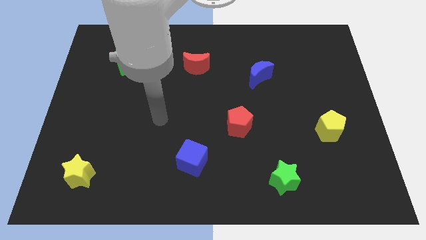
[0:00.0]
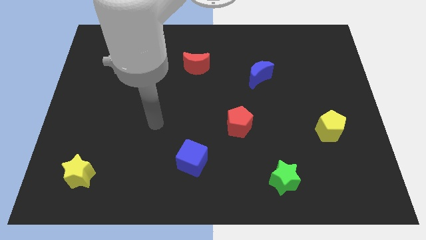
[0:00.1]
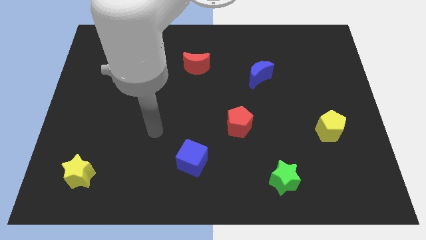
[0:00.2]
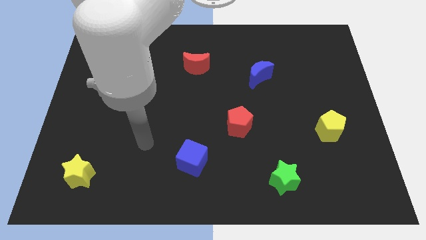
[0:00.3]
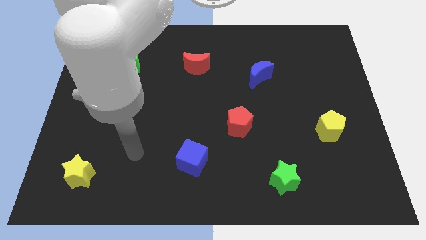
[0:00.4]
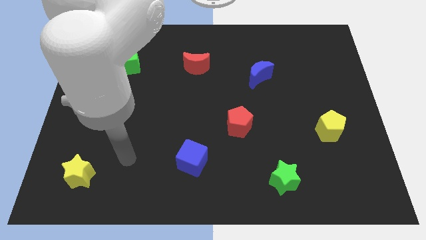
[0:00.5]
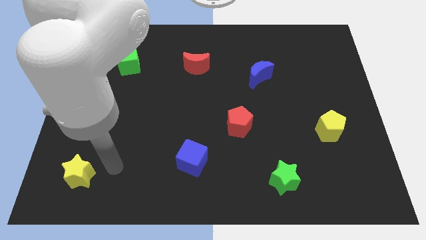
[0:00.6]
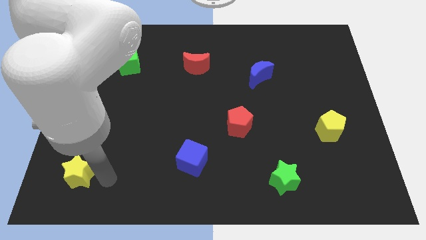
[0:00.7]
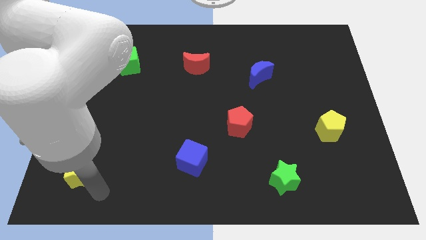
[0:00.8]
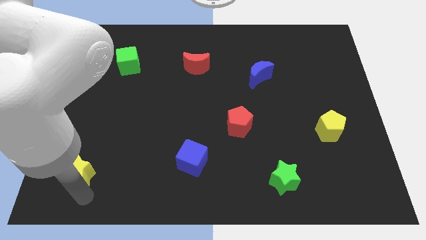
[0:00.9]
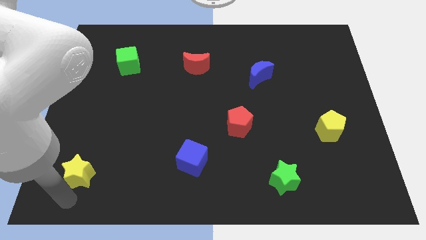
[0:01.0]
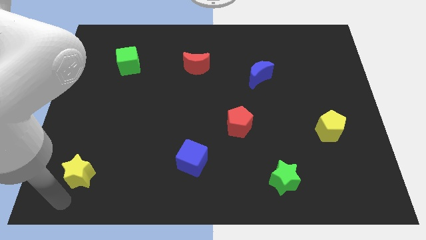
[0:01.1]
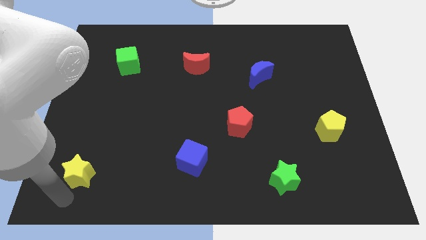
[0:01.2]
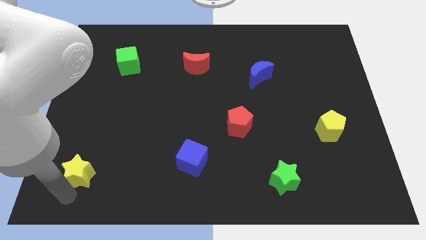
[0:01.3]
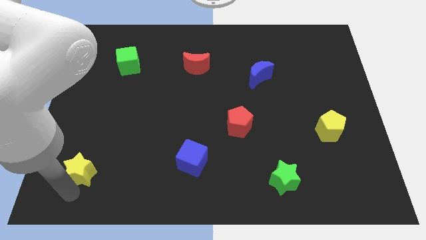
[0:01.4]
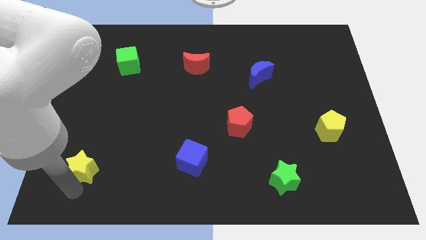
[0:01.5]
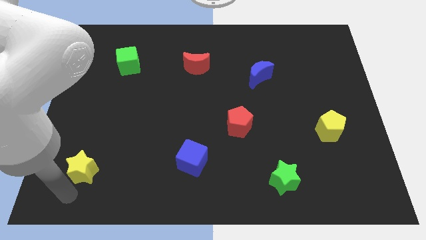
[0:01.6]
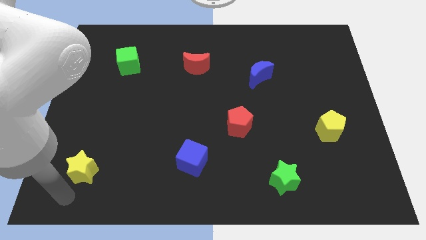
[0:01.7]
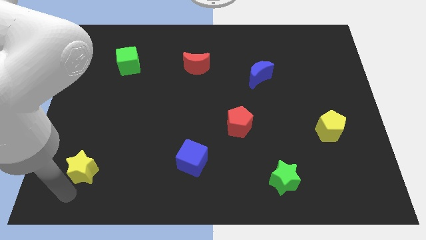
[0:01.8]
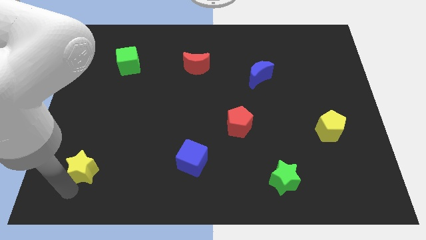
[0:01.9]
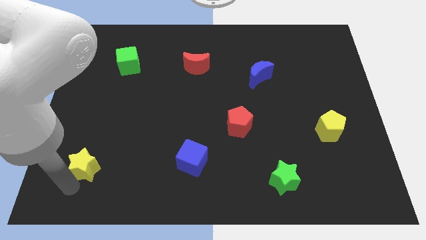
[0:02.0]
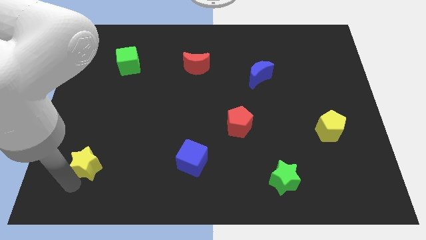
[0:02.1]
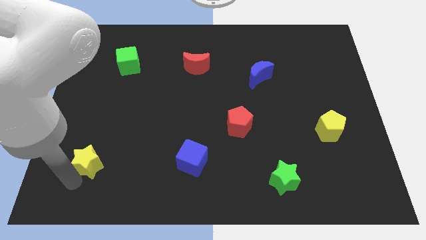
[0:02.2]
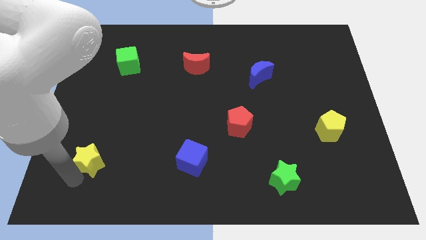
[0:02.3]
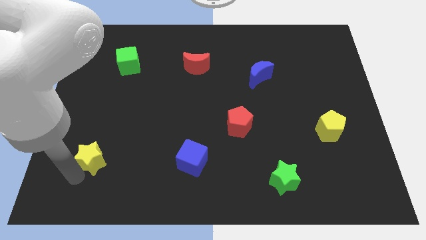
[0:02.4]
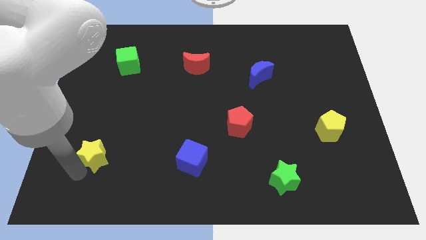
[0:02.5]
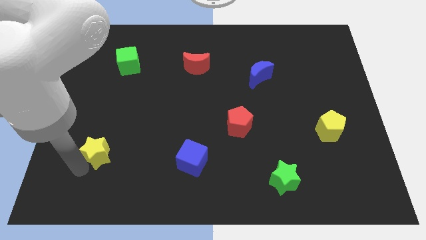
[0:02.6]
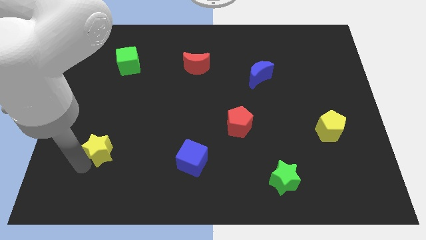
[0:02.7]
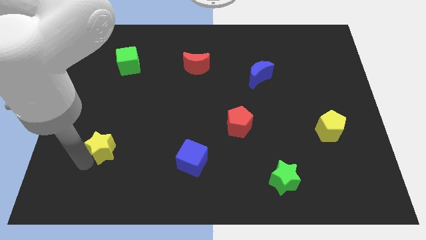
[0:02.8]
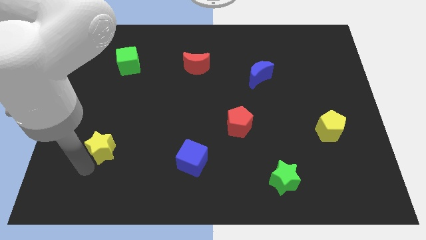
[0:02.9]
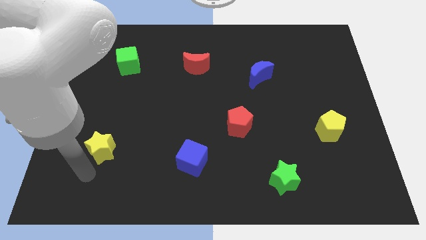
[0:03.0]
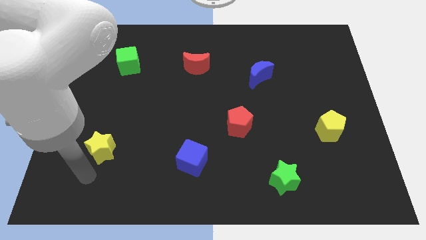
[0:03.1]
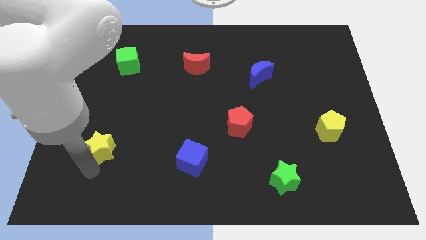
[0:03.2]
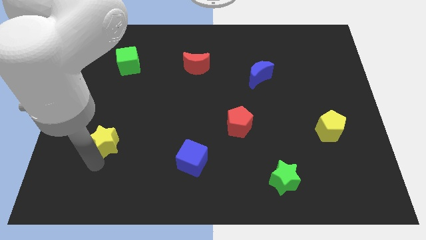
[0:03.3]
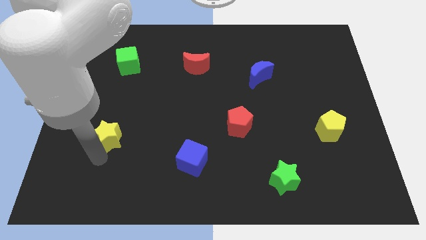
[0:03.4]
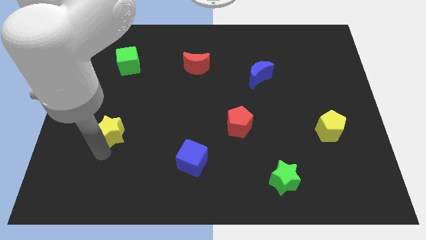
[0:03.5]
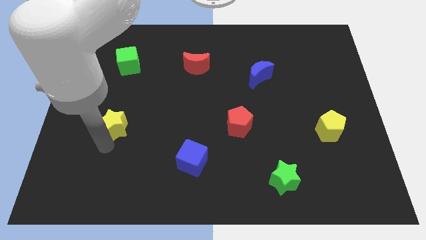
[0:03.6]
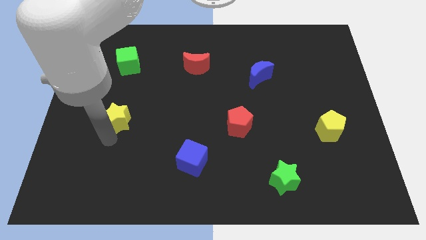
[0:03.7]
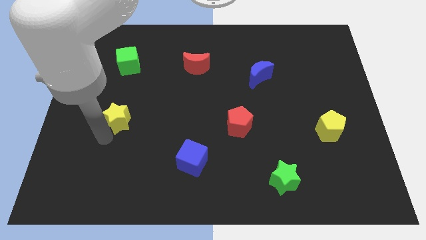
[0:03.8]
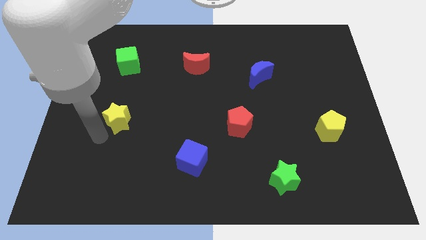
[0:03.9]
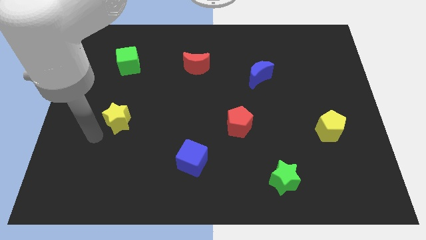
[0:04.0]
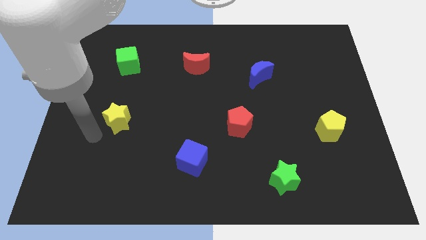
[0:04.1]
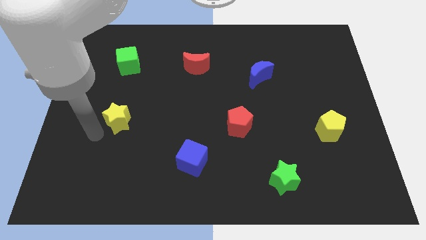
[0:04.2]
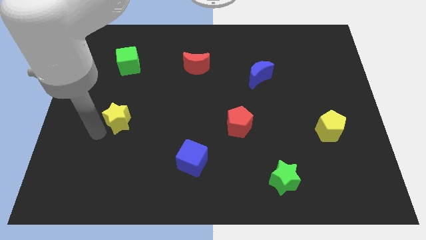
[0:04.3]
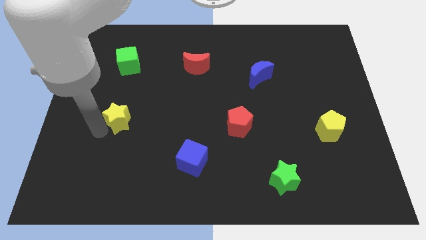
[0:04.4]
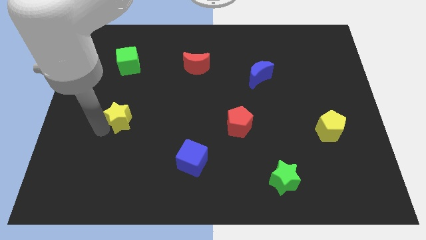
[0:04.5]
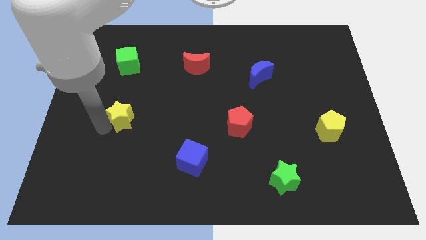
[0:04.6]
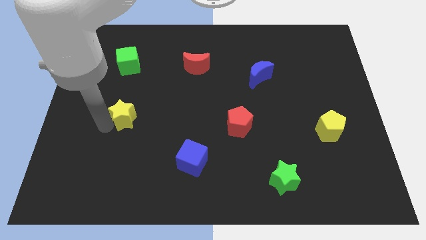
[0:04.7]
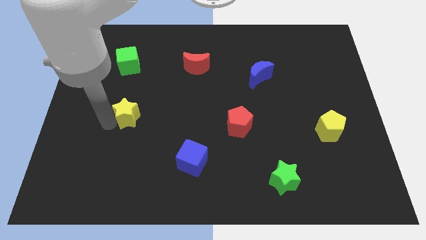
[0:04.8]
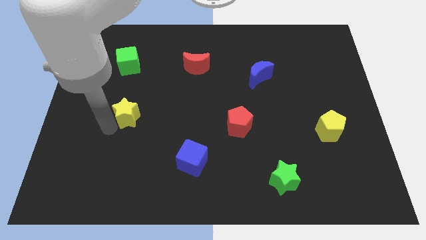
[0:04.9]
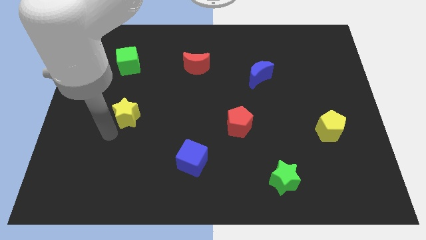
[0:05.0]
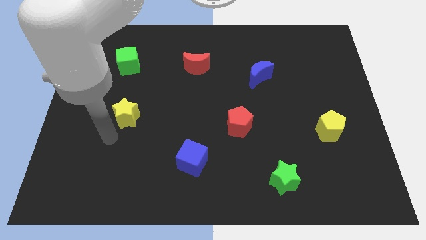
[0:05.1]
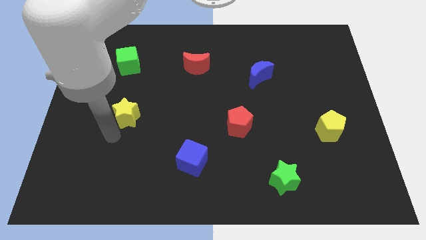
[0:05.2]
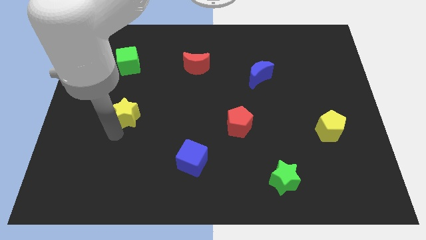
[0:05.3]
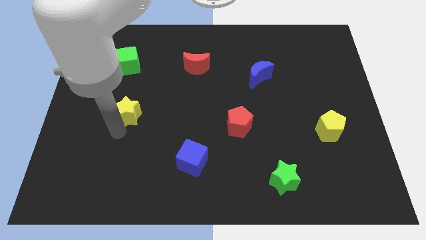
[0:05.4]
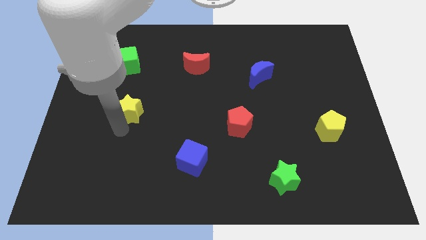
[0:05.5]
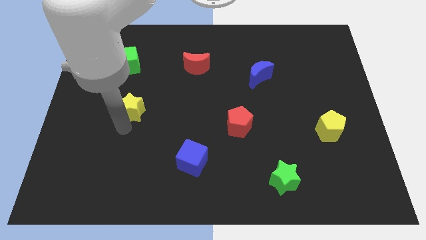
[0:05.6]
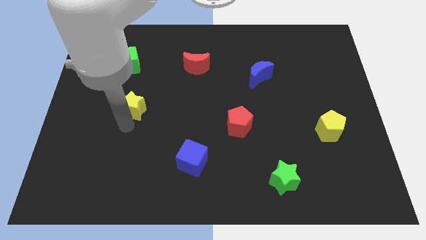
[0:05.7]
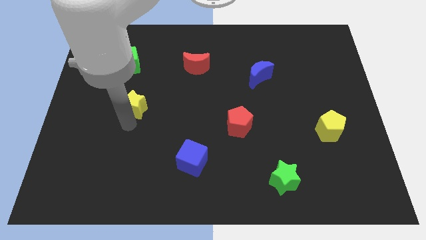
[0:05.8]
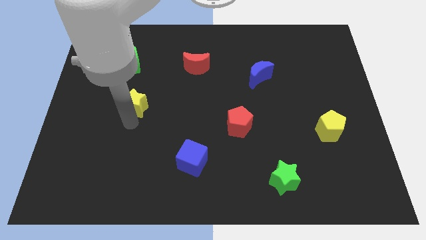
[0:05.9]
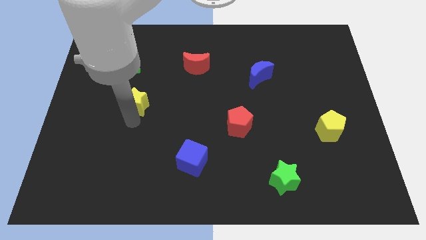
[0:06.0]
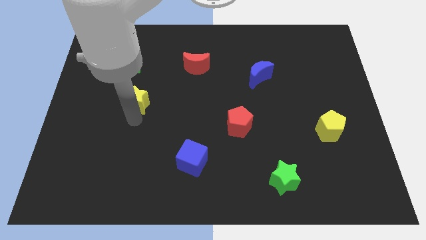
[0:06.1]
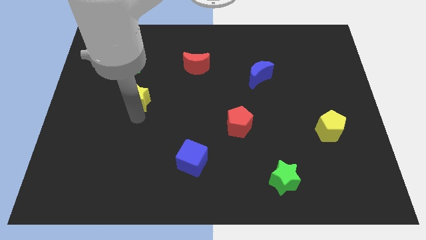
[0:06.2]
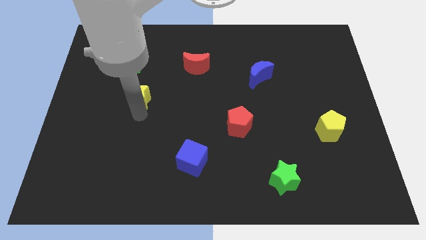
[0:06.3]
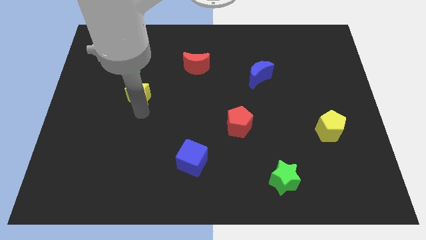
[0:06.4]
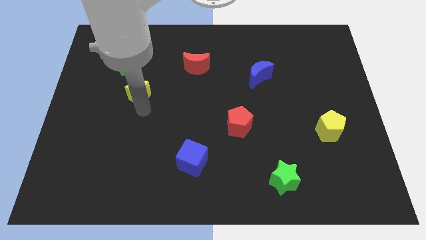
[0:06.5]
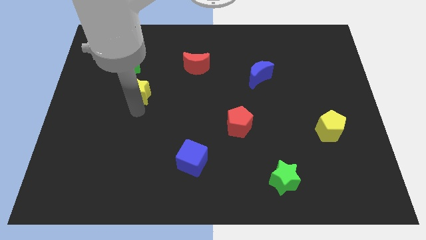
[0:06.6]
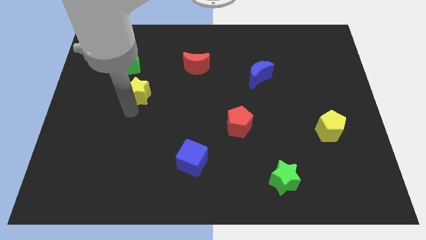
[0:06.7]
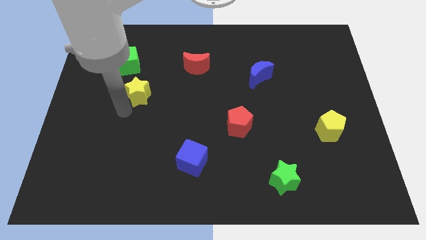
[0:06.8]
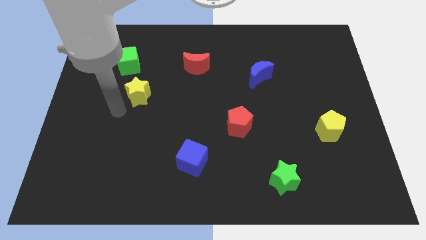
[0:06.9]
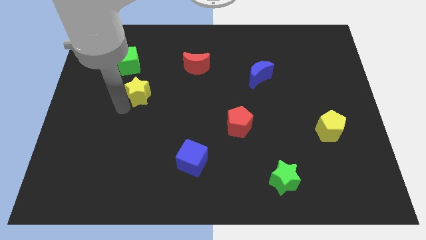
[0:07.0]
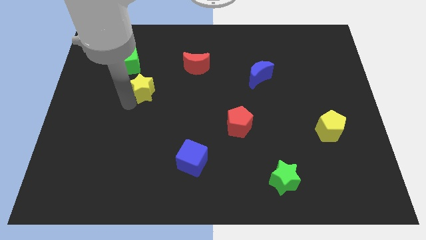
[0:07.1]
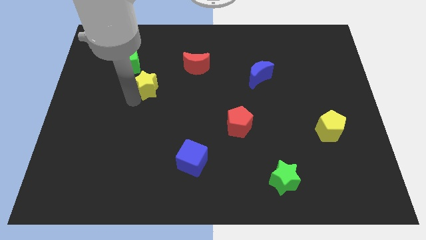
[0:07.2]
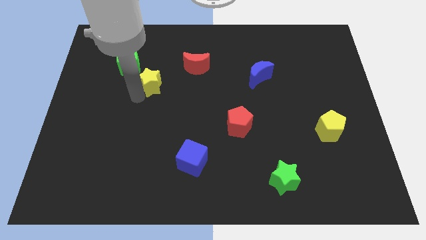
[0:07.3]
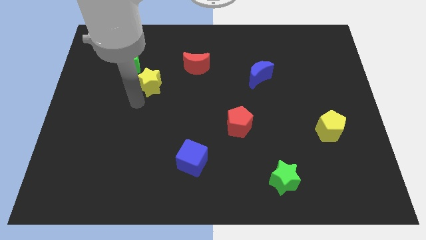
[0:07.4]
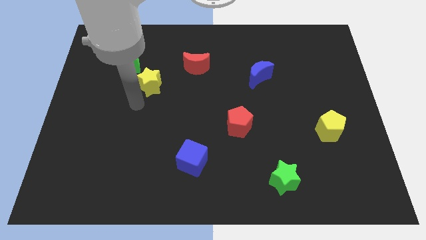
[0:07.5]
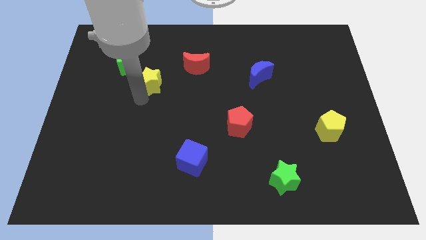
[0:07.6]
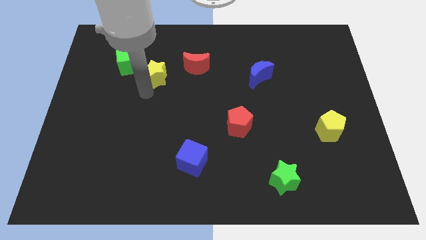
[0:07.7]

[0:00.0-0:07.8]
put the yellow star to the right of the green cube

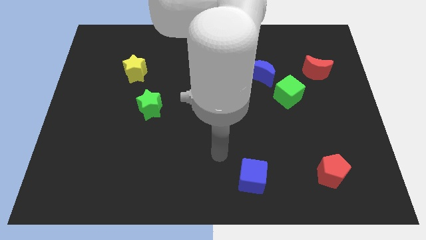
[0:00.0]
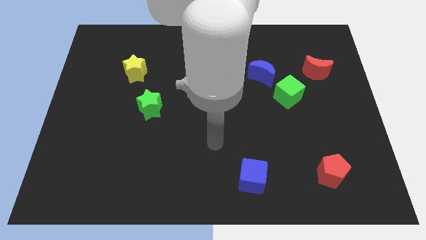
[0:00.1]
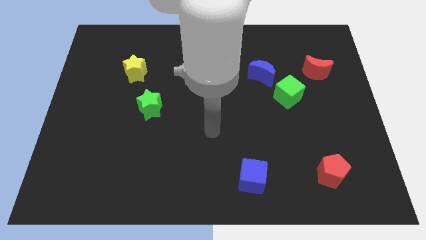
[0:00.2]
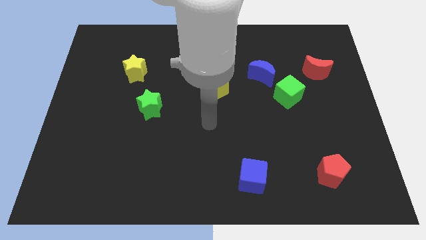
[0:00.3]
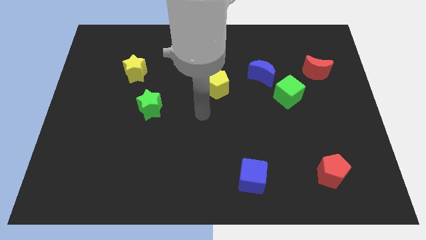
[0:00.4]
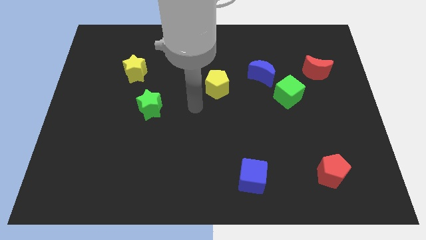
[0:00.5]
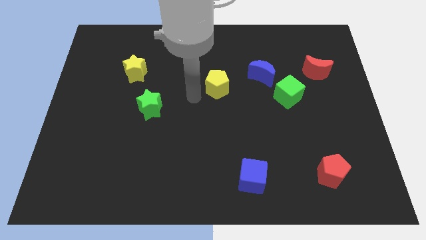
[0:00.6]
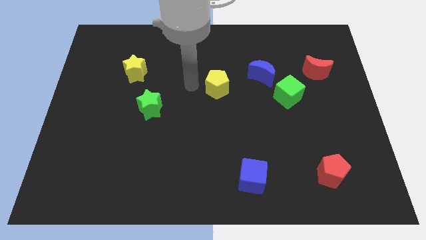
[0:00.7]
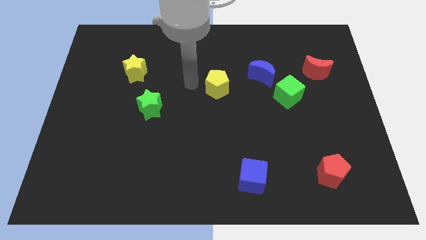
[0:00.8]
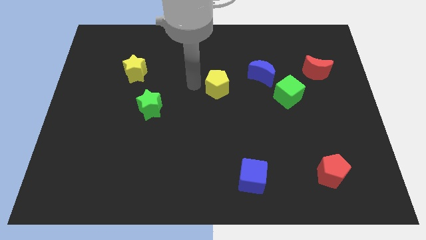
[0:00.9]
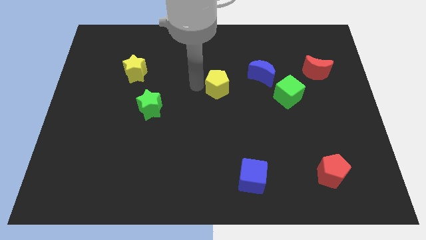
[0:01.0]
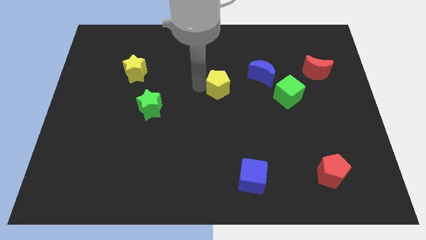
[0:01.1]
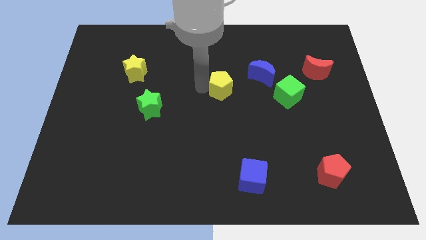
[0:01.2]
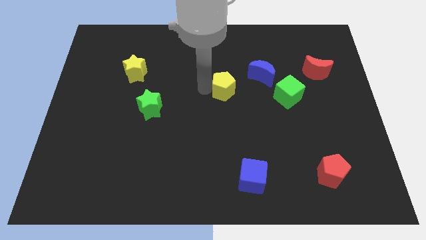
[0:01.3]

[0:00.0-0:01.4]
move the yellow pentagon to the bottom left side of the blue moon
